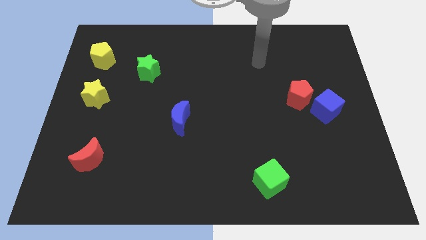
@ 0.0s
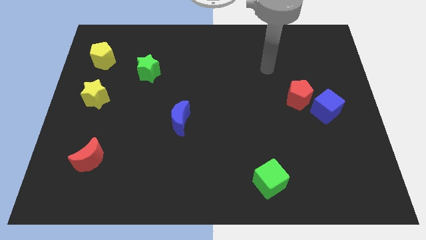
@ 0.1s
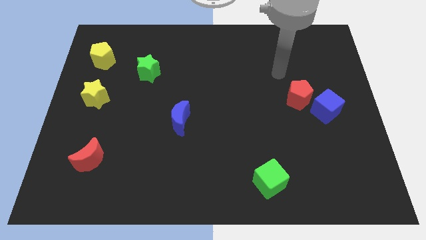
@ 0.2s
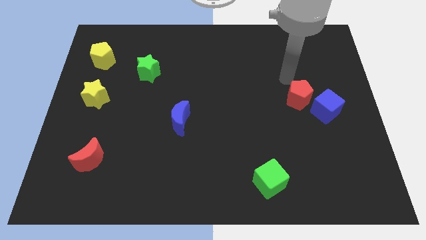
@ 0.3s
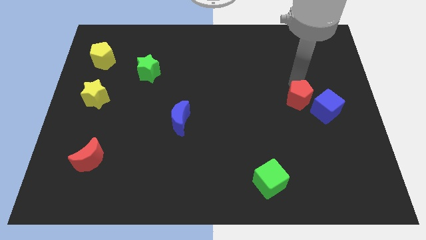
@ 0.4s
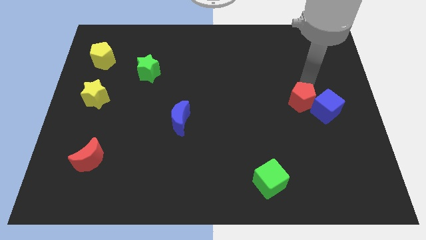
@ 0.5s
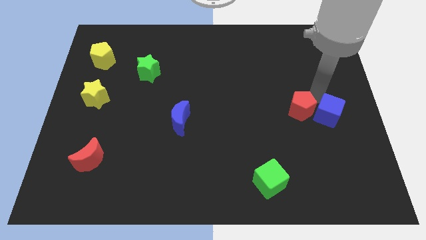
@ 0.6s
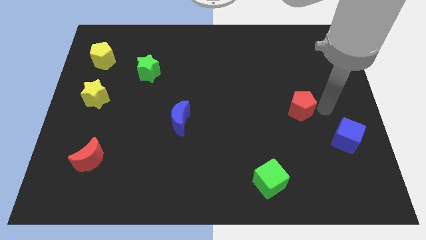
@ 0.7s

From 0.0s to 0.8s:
move the red pentagon away from the blue cube

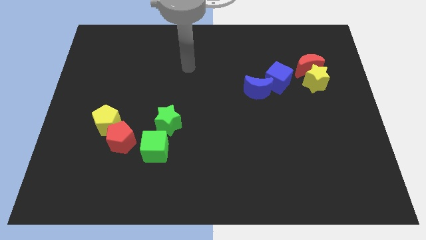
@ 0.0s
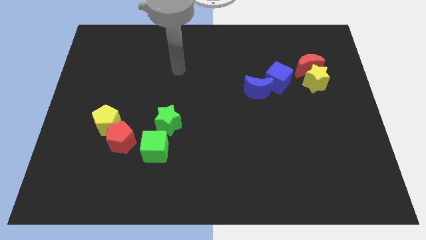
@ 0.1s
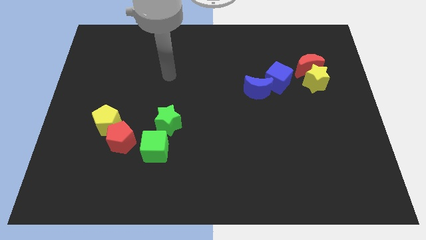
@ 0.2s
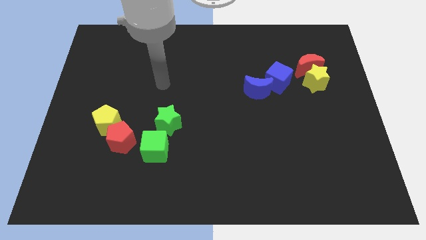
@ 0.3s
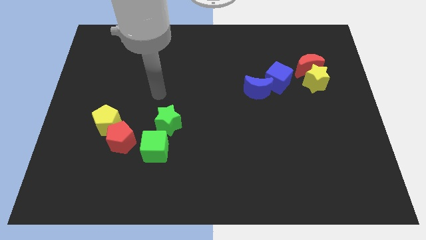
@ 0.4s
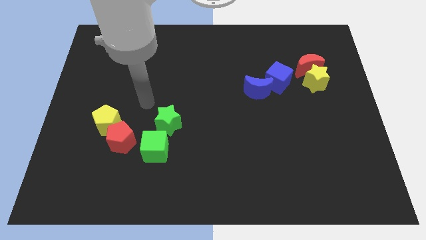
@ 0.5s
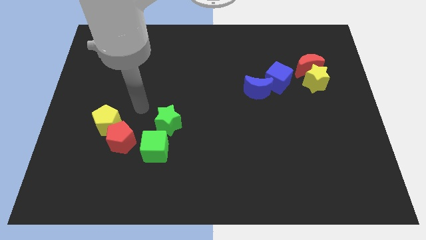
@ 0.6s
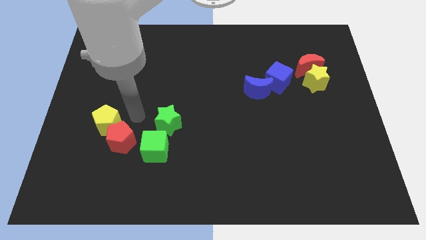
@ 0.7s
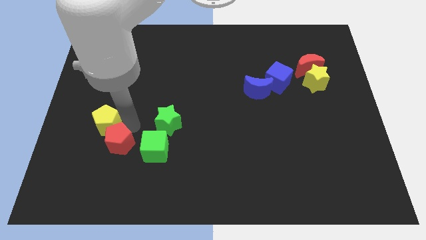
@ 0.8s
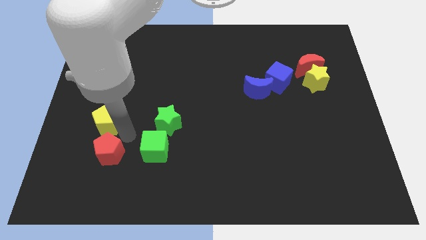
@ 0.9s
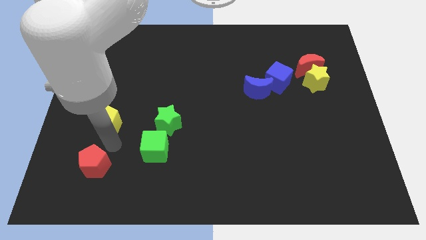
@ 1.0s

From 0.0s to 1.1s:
pull the yellow pentagon apart from the red pentagon

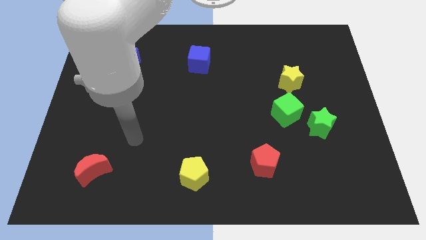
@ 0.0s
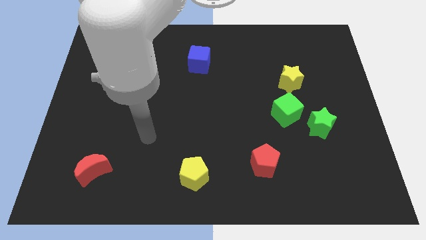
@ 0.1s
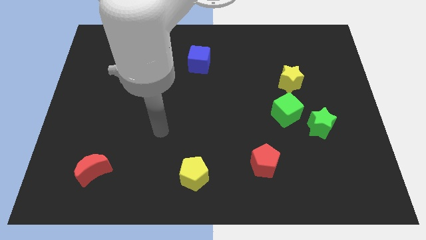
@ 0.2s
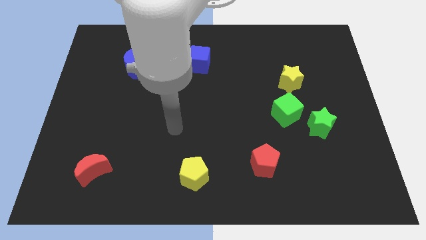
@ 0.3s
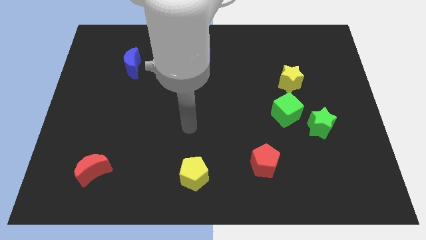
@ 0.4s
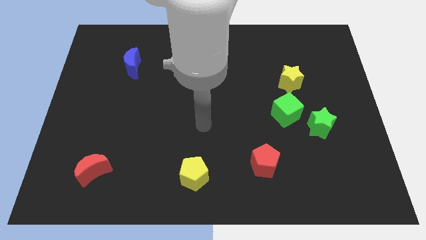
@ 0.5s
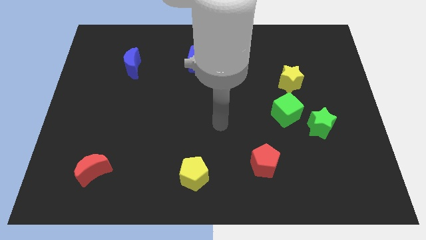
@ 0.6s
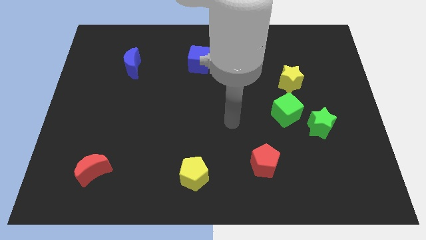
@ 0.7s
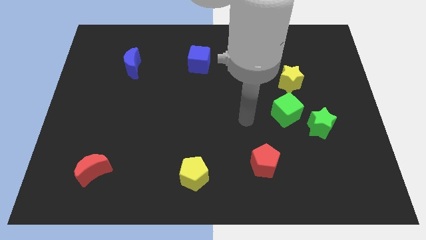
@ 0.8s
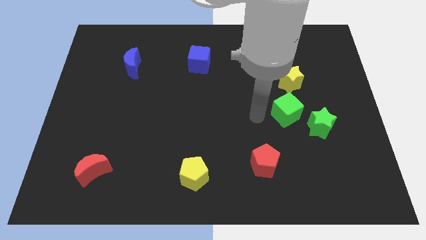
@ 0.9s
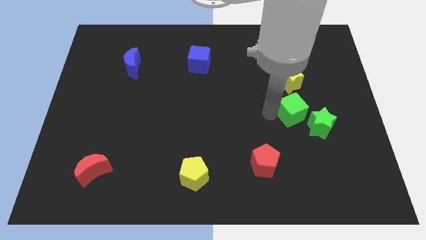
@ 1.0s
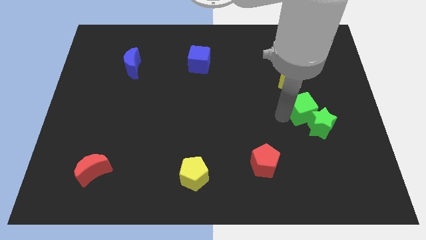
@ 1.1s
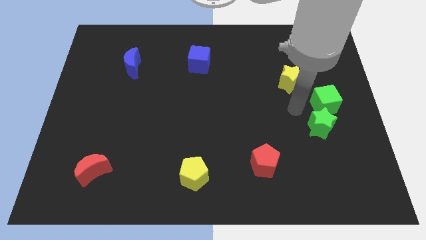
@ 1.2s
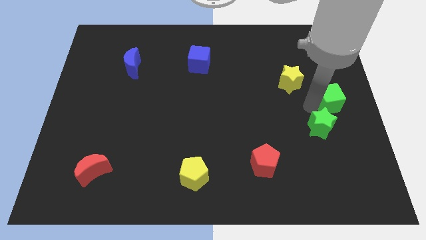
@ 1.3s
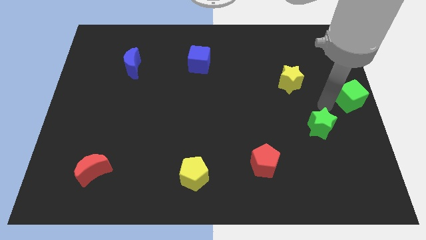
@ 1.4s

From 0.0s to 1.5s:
separate the green star from the green cube

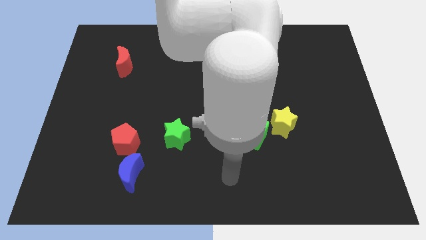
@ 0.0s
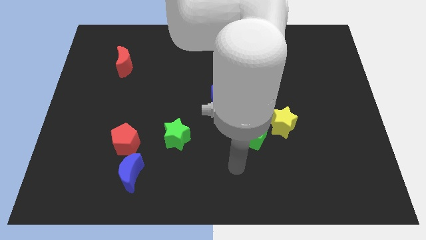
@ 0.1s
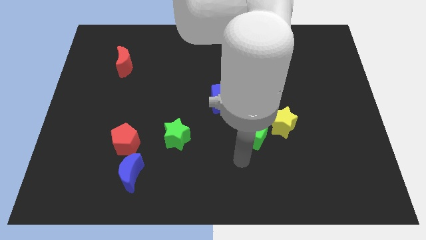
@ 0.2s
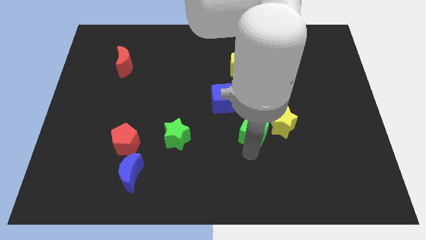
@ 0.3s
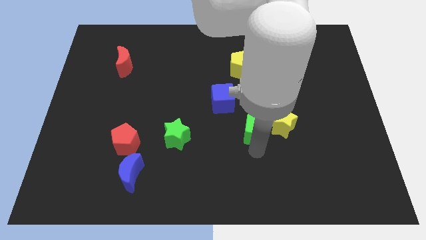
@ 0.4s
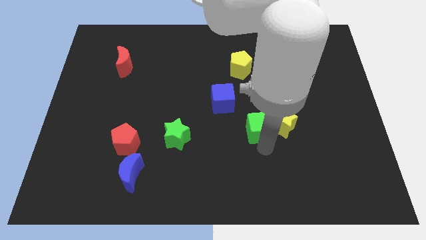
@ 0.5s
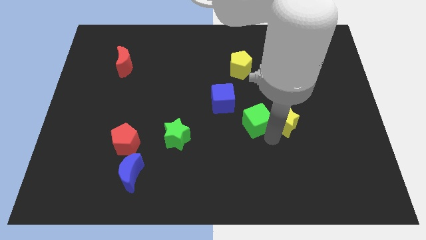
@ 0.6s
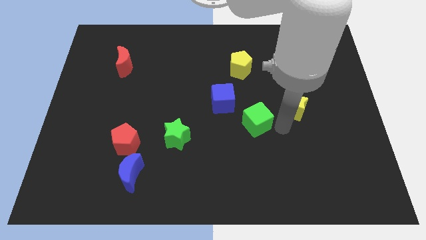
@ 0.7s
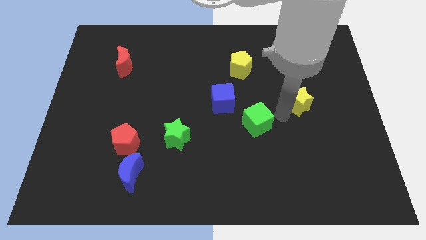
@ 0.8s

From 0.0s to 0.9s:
pull the green cube apart from the yellow star

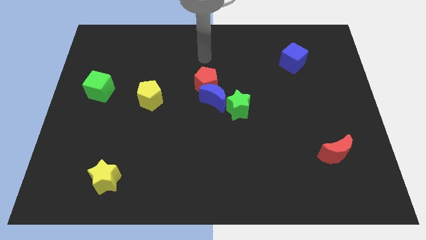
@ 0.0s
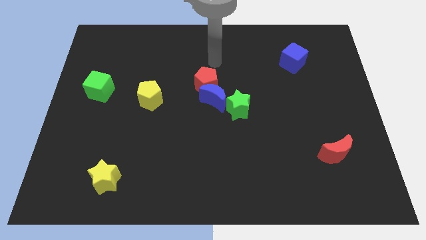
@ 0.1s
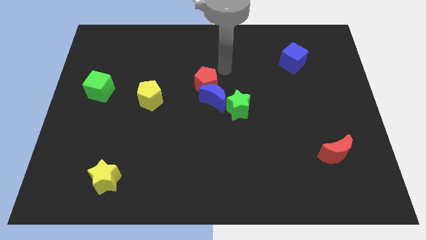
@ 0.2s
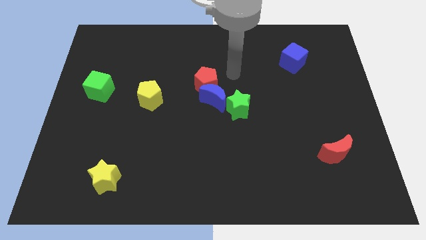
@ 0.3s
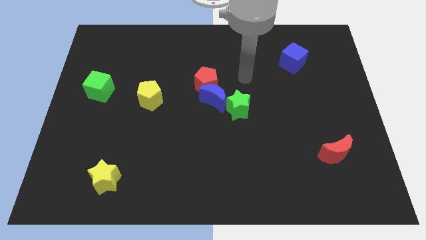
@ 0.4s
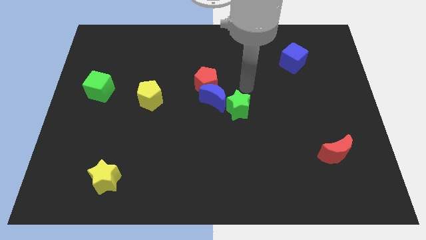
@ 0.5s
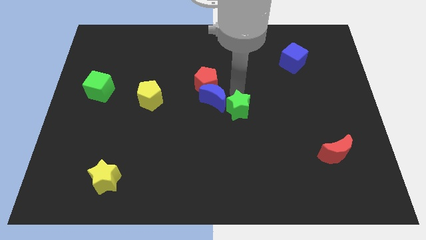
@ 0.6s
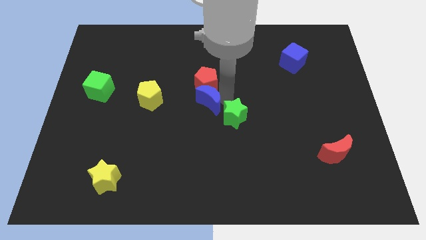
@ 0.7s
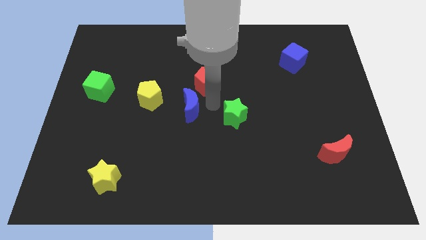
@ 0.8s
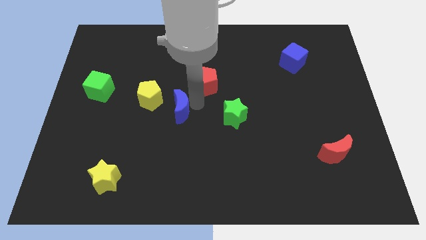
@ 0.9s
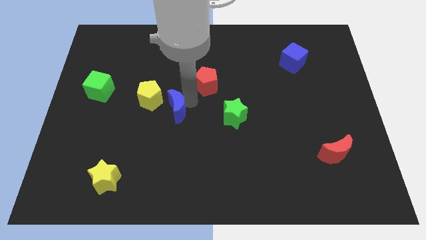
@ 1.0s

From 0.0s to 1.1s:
move the red pentagon away from the blue moon

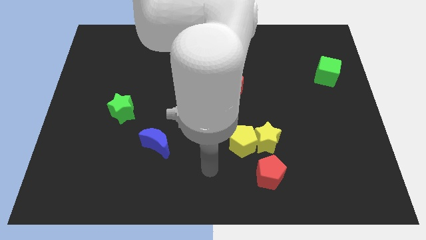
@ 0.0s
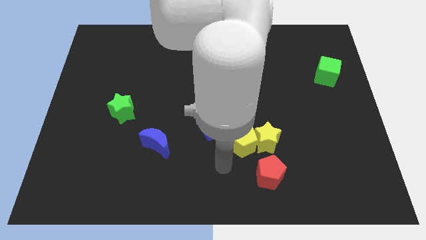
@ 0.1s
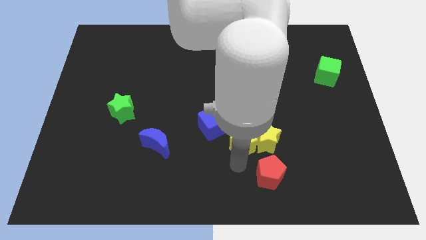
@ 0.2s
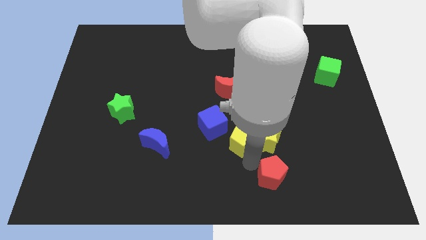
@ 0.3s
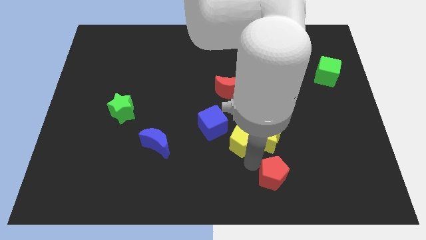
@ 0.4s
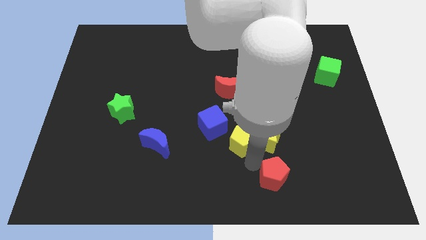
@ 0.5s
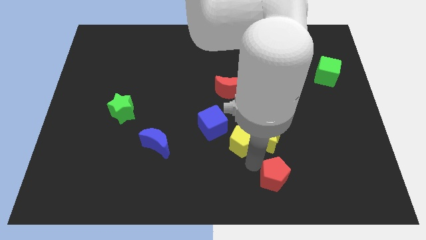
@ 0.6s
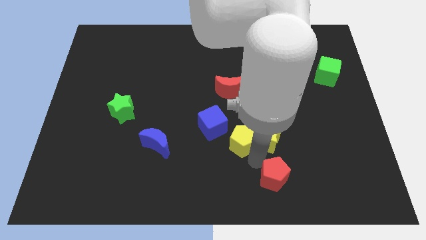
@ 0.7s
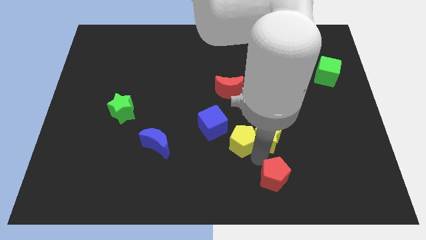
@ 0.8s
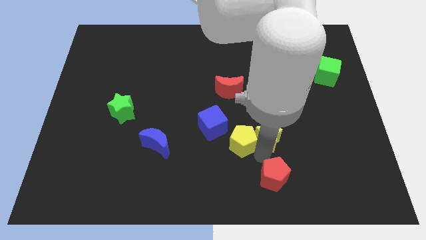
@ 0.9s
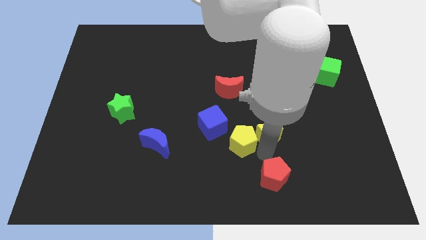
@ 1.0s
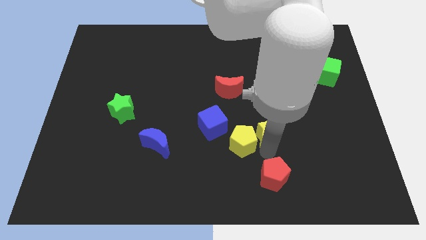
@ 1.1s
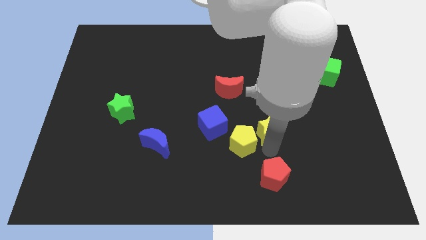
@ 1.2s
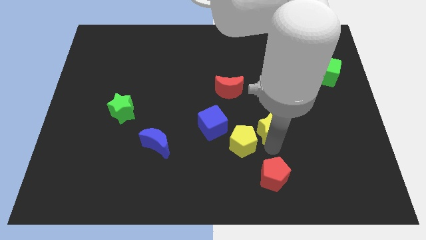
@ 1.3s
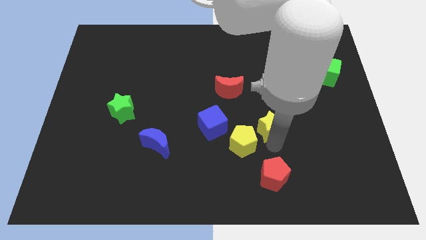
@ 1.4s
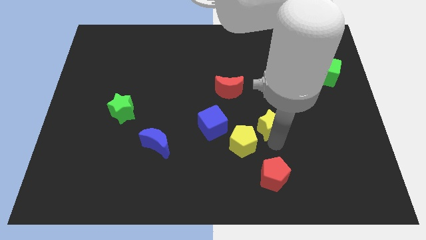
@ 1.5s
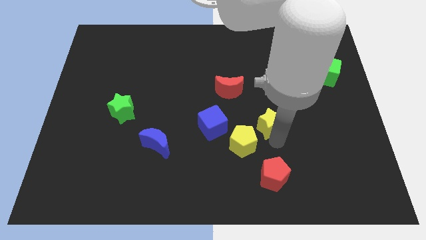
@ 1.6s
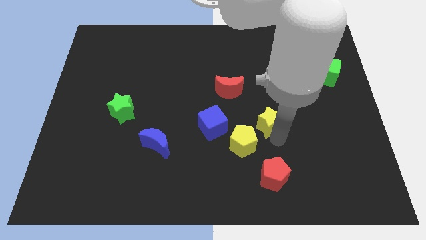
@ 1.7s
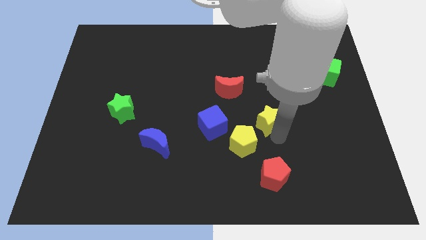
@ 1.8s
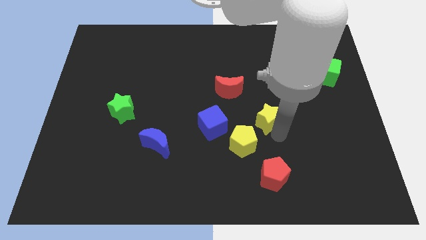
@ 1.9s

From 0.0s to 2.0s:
move the yellow star away from the yellow pentagon and red pentagon

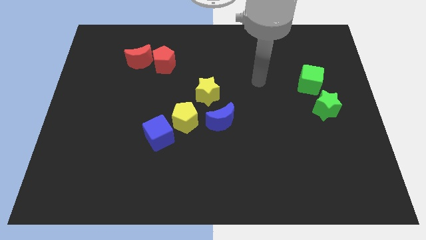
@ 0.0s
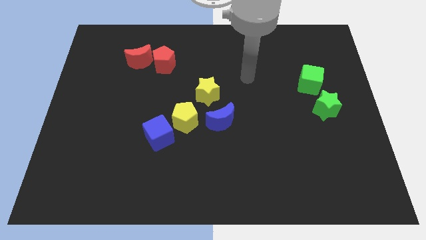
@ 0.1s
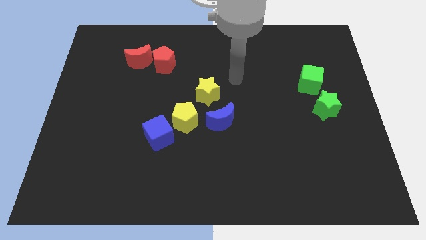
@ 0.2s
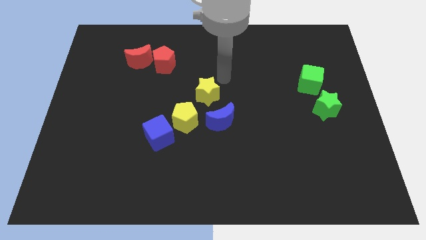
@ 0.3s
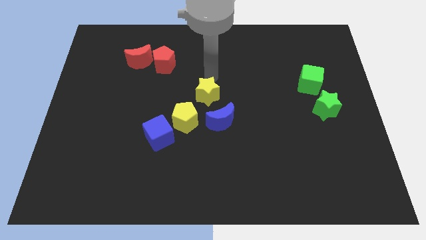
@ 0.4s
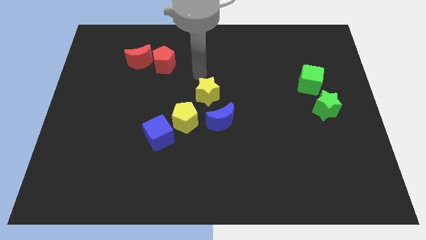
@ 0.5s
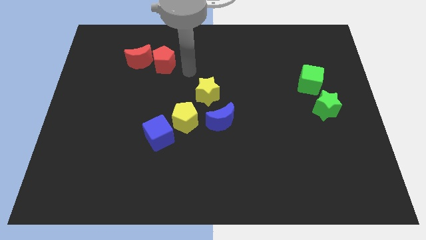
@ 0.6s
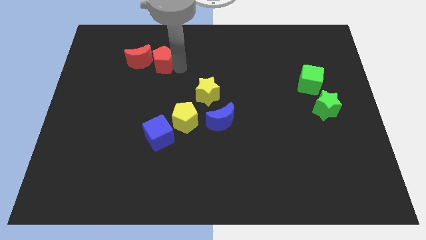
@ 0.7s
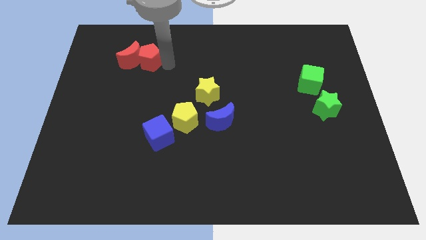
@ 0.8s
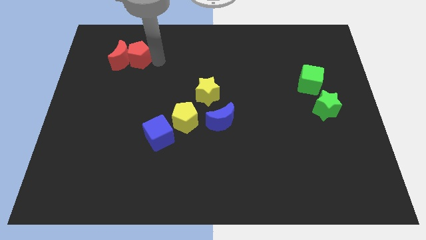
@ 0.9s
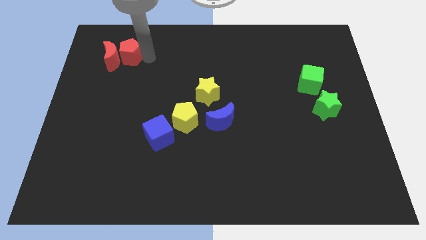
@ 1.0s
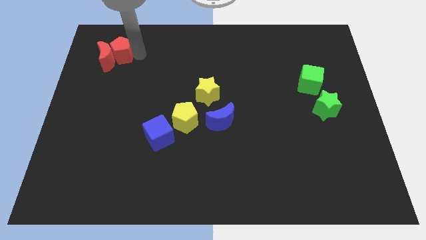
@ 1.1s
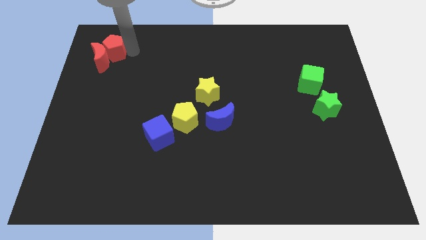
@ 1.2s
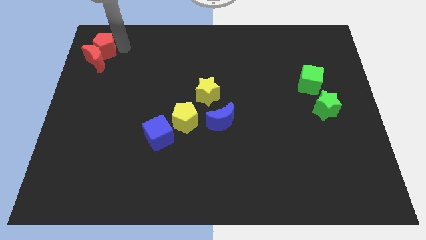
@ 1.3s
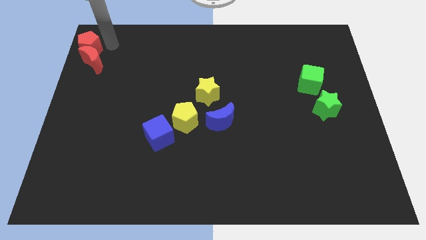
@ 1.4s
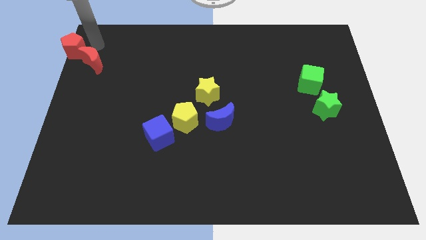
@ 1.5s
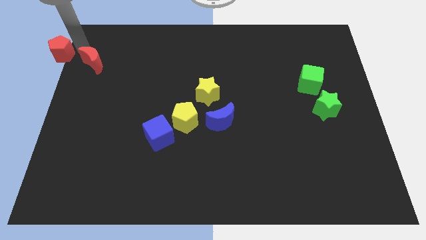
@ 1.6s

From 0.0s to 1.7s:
separate the red moon from the red pentagon

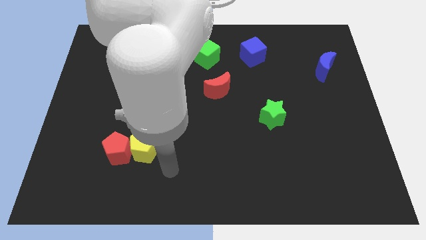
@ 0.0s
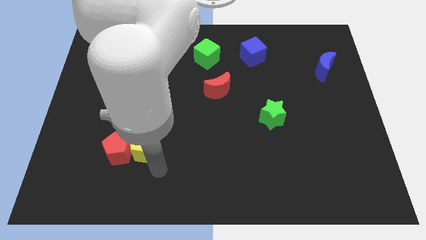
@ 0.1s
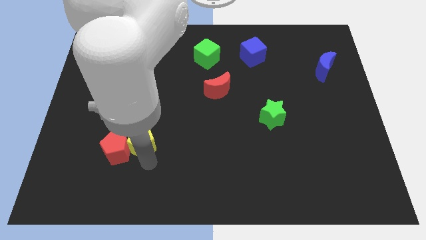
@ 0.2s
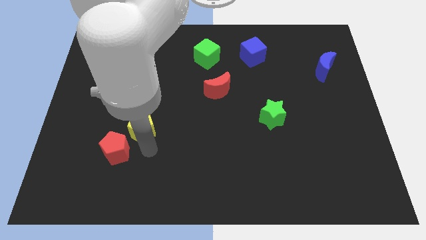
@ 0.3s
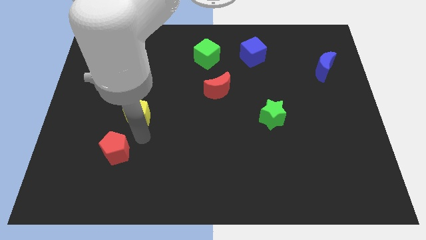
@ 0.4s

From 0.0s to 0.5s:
pull the red pentagon apart from the yellow pentagon
